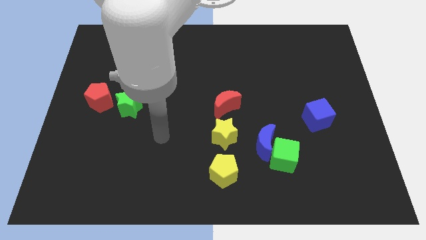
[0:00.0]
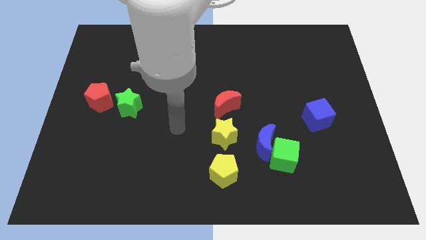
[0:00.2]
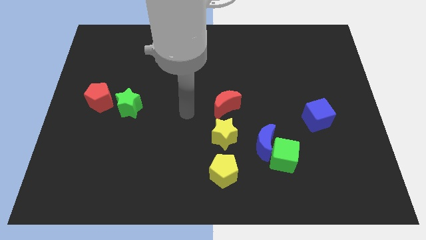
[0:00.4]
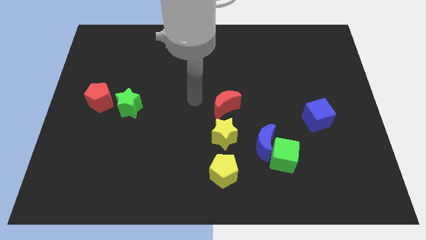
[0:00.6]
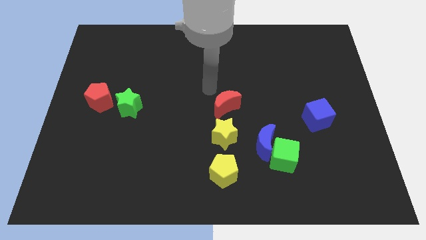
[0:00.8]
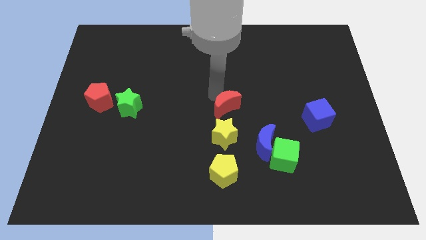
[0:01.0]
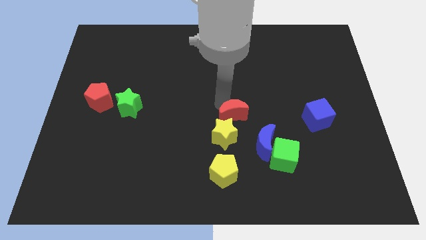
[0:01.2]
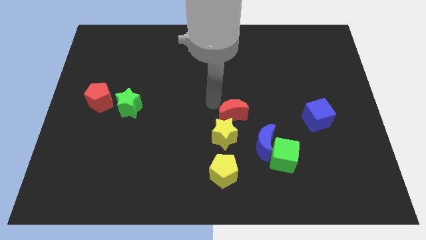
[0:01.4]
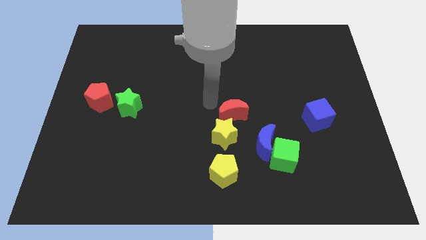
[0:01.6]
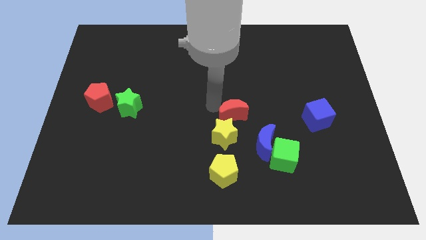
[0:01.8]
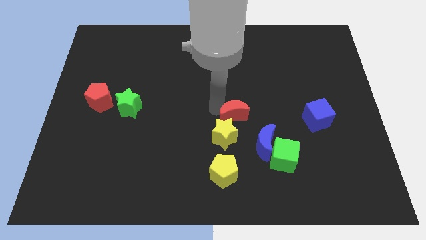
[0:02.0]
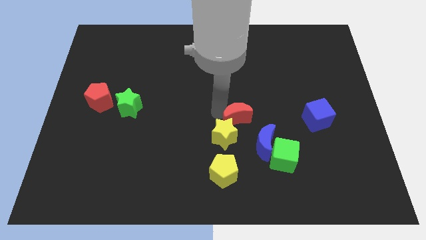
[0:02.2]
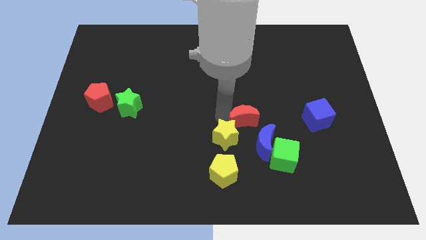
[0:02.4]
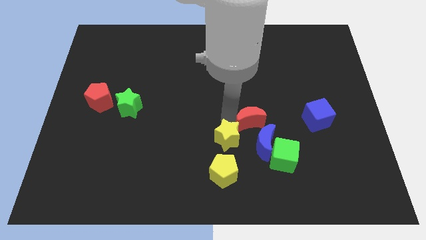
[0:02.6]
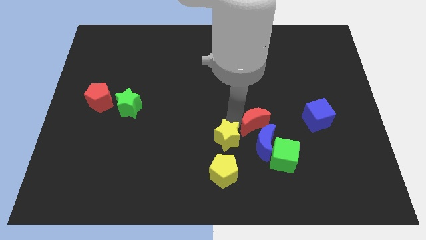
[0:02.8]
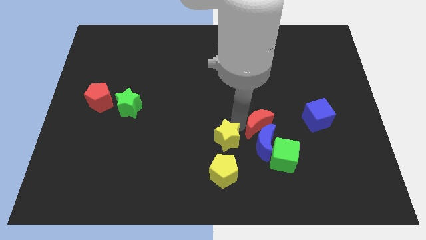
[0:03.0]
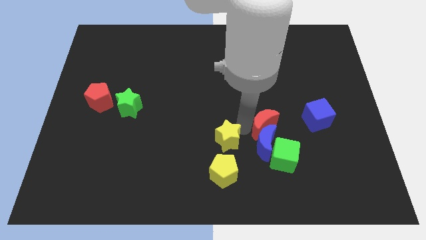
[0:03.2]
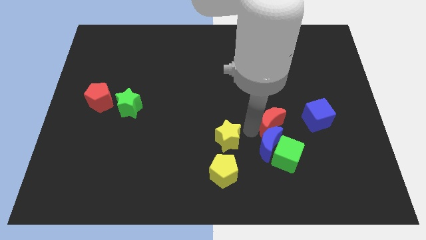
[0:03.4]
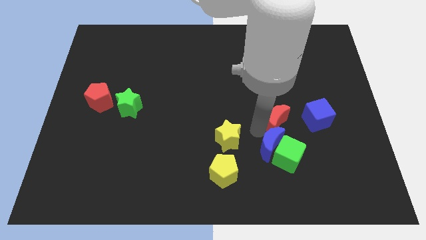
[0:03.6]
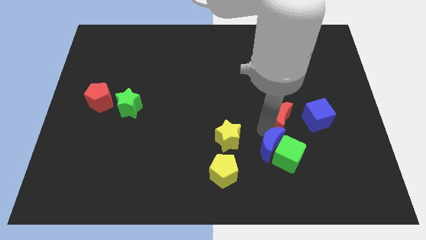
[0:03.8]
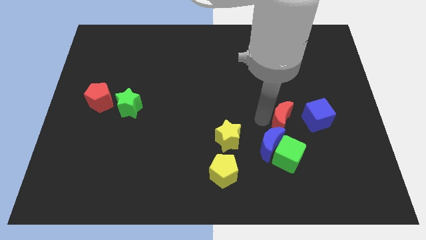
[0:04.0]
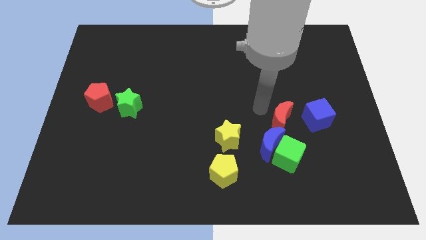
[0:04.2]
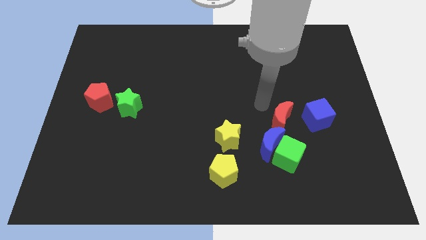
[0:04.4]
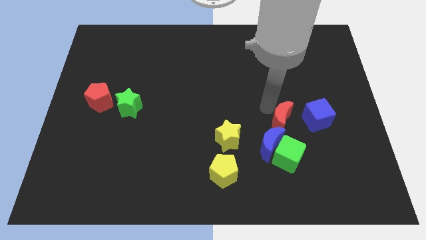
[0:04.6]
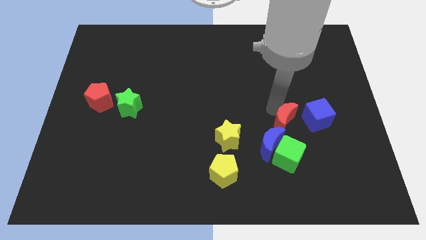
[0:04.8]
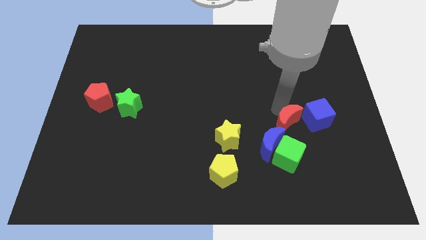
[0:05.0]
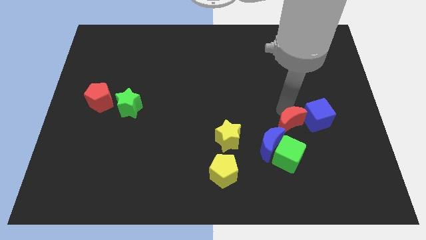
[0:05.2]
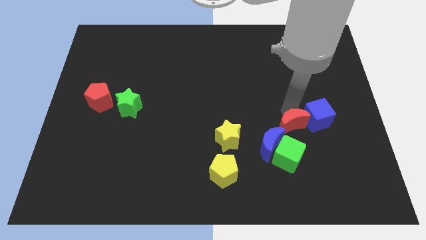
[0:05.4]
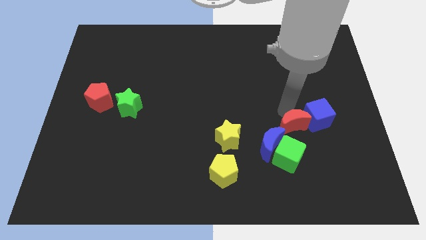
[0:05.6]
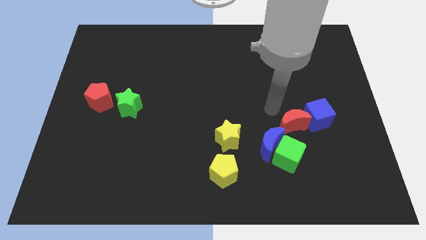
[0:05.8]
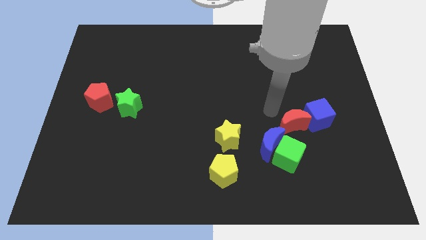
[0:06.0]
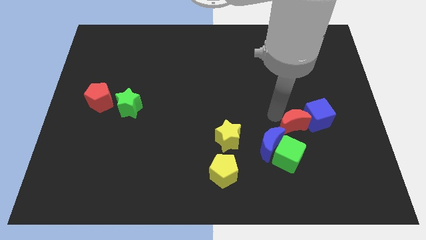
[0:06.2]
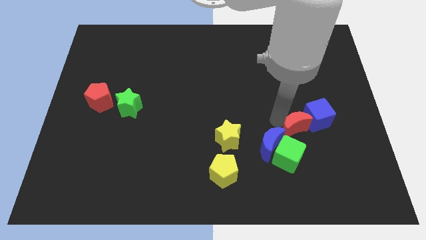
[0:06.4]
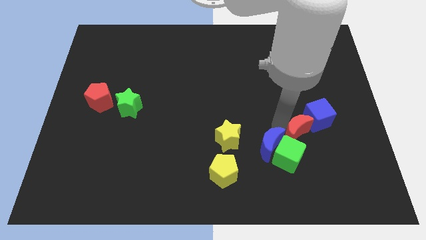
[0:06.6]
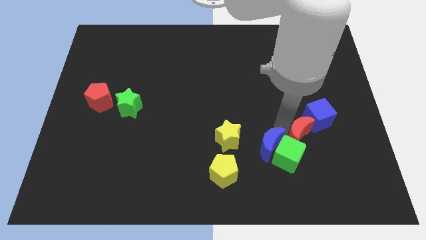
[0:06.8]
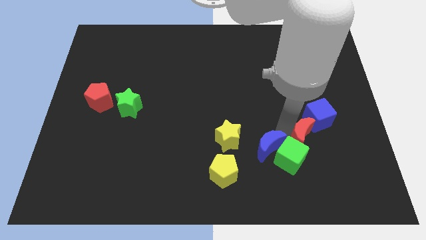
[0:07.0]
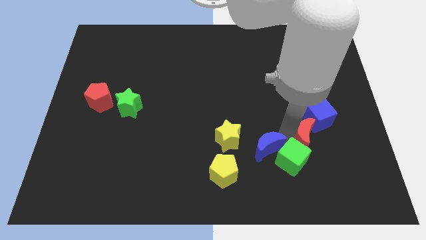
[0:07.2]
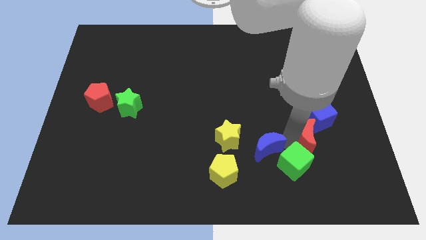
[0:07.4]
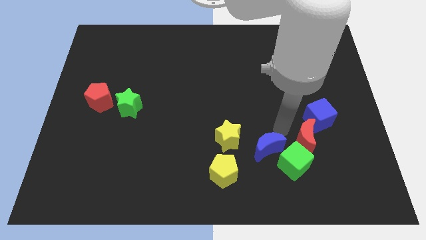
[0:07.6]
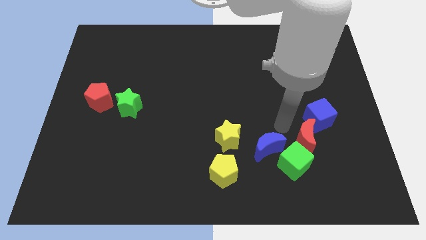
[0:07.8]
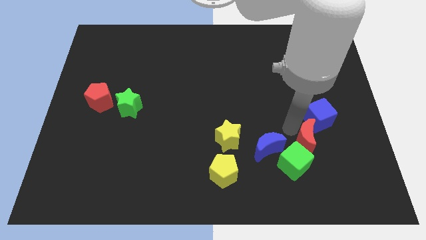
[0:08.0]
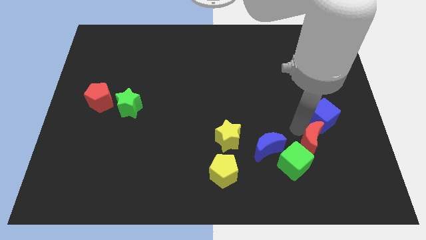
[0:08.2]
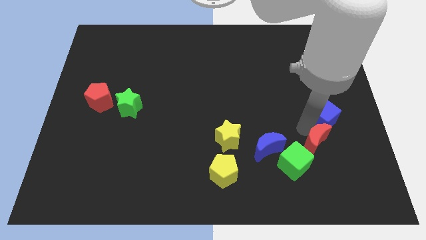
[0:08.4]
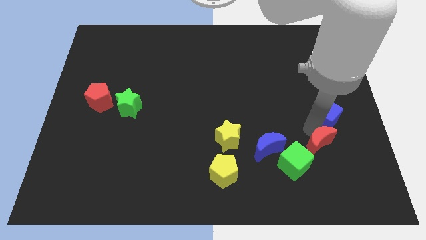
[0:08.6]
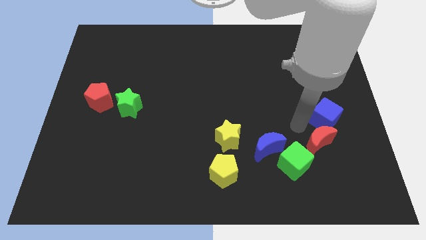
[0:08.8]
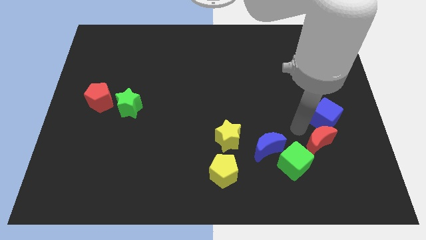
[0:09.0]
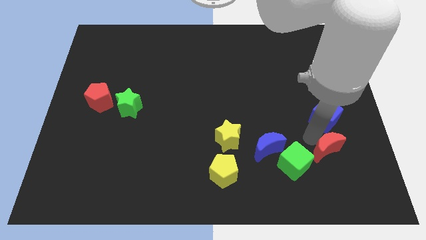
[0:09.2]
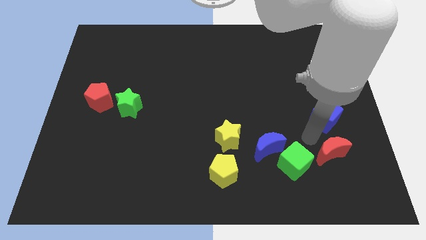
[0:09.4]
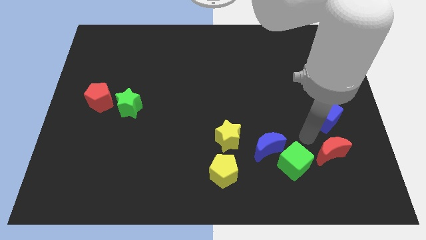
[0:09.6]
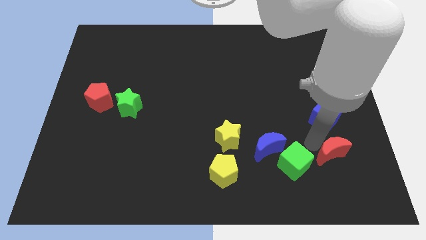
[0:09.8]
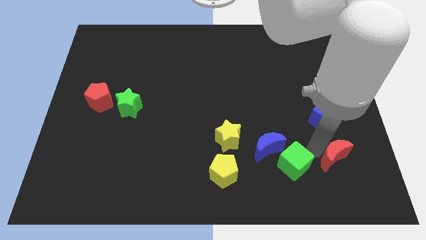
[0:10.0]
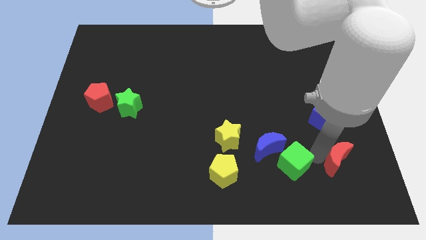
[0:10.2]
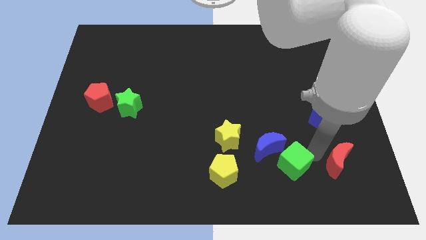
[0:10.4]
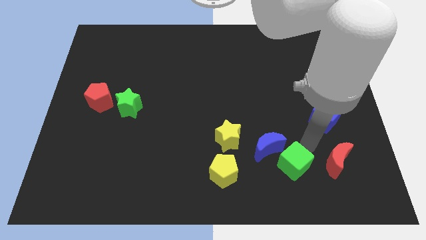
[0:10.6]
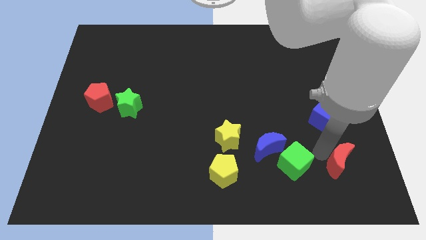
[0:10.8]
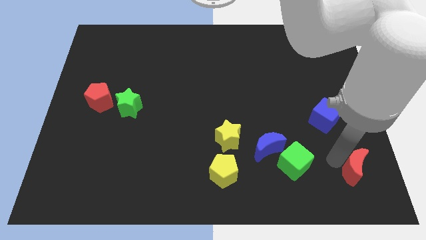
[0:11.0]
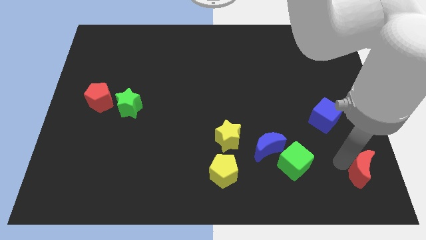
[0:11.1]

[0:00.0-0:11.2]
slide the red moon to the bottom right of the board
